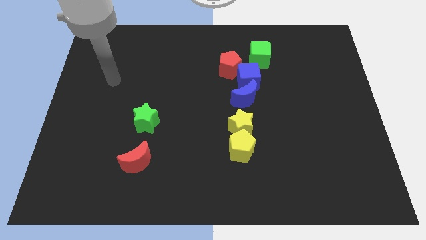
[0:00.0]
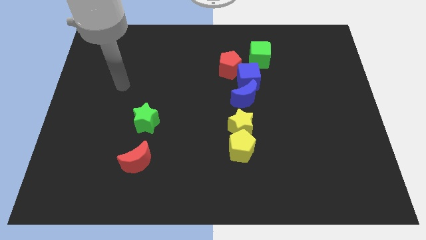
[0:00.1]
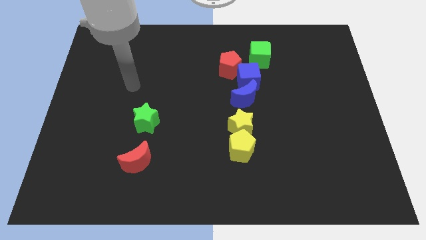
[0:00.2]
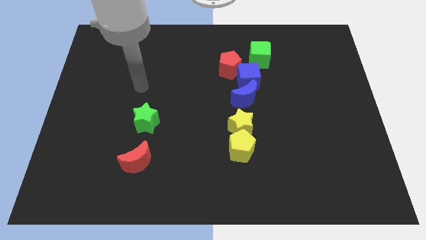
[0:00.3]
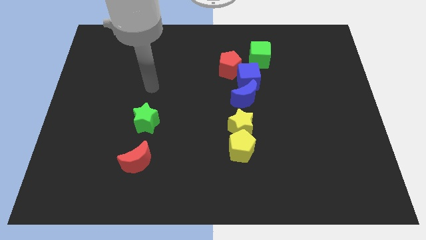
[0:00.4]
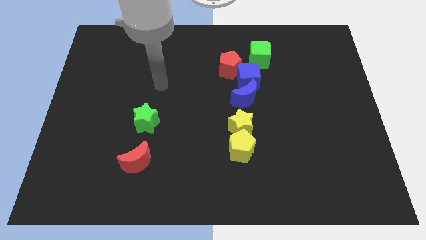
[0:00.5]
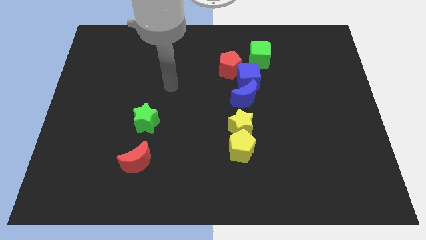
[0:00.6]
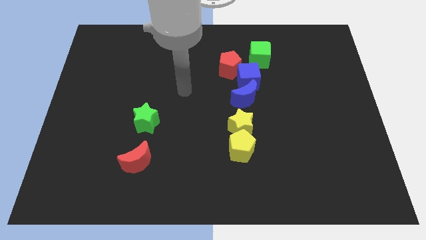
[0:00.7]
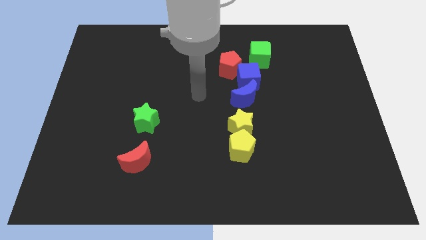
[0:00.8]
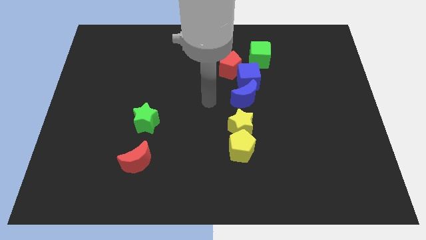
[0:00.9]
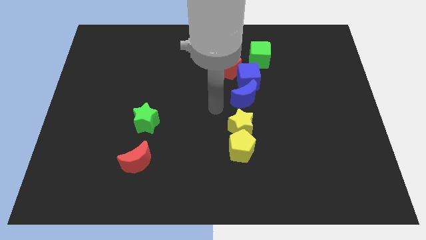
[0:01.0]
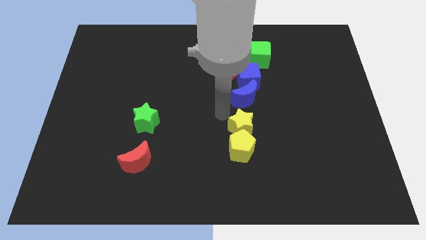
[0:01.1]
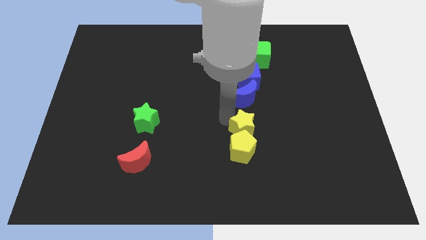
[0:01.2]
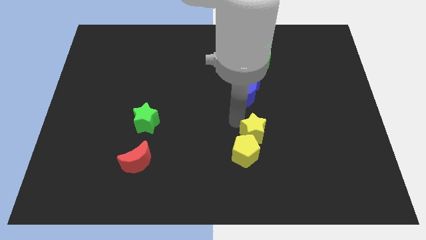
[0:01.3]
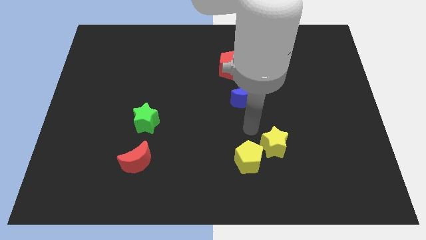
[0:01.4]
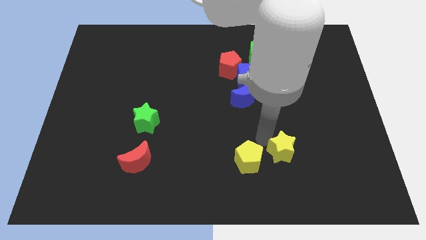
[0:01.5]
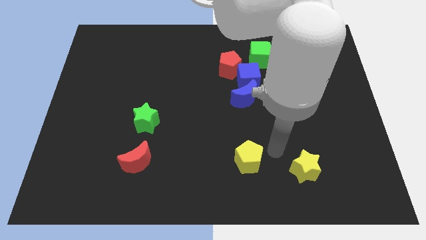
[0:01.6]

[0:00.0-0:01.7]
move the yellow pentagon away from the yellow star

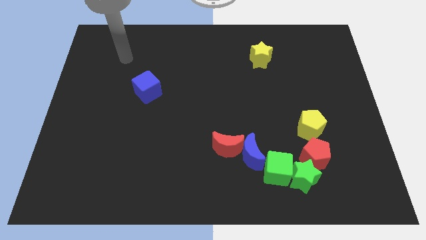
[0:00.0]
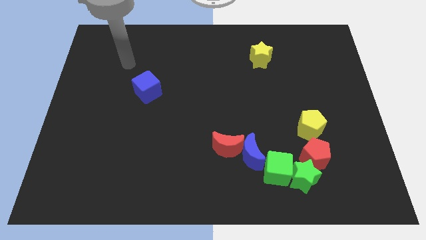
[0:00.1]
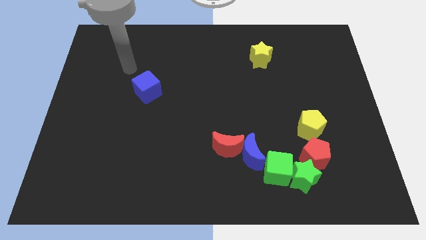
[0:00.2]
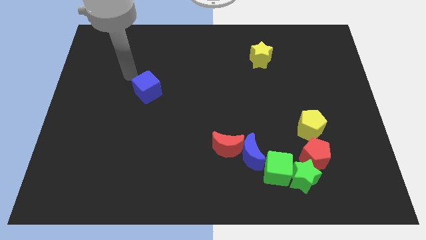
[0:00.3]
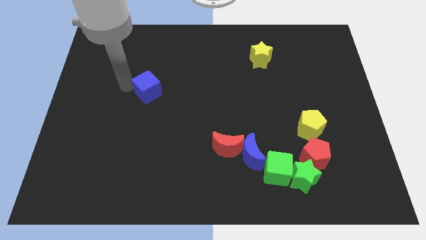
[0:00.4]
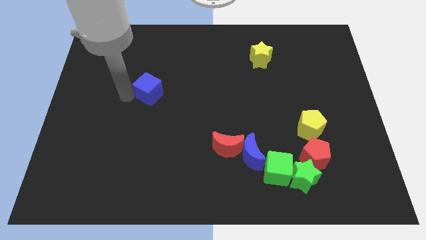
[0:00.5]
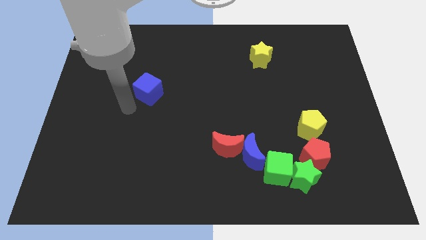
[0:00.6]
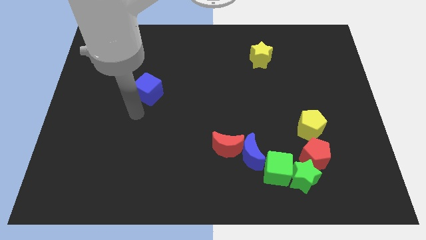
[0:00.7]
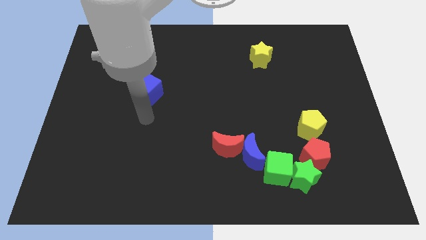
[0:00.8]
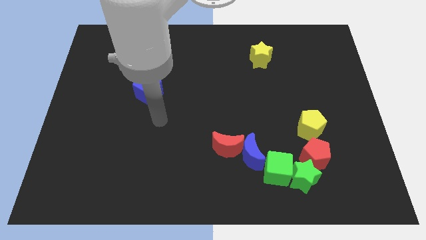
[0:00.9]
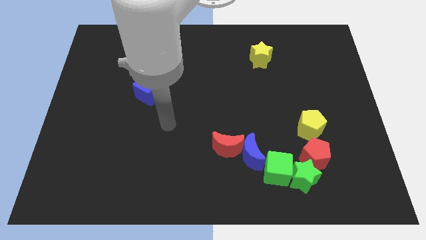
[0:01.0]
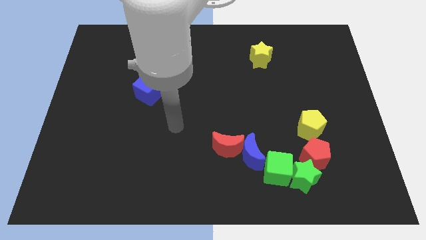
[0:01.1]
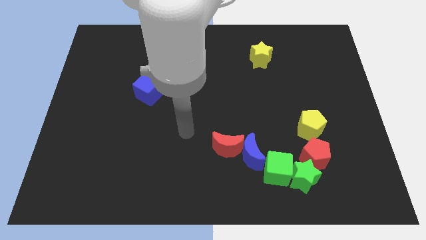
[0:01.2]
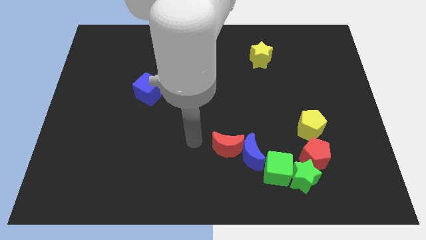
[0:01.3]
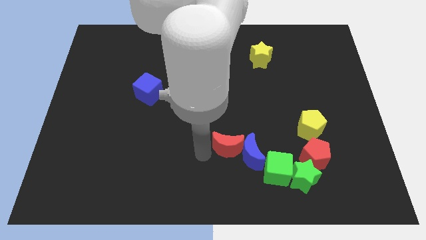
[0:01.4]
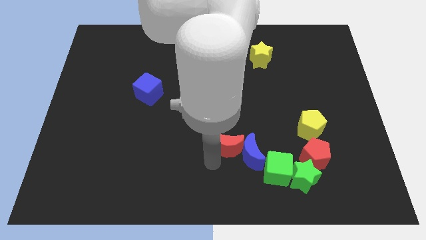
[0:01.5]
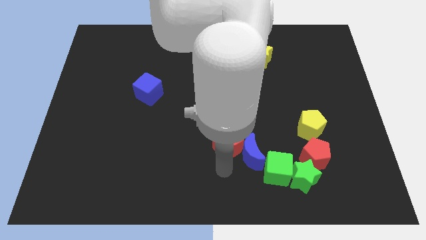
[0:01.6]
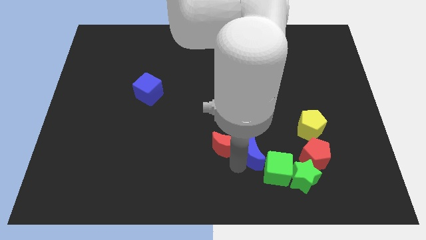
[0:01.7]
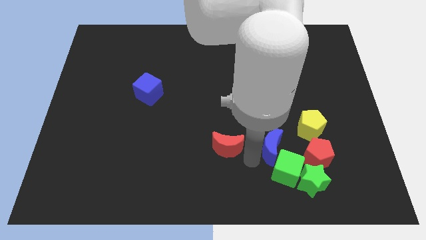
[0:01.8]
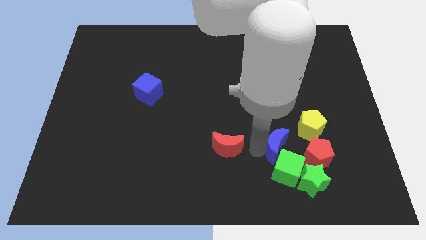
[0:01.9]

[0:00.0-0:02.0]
separate the red moon from the blue moon

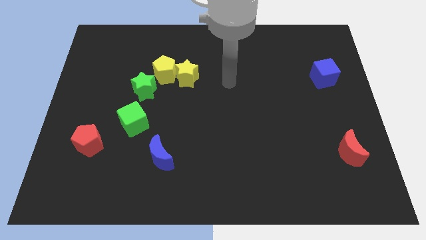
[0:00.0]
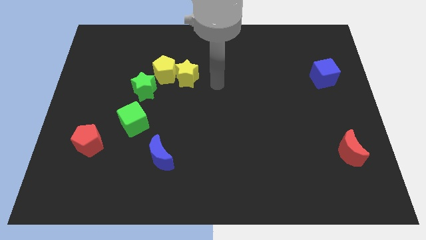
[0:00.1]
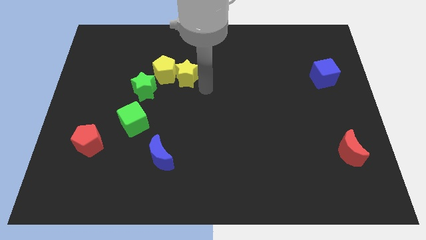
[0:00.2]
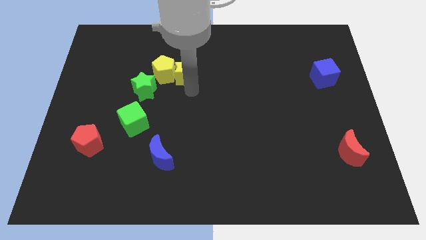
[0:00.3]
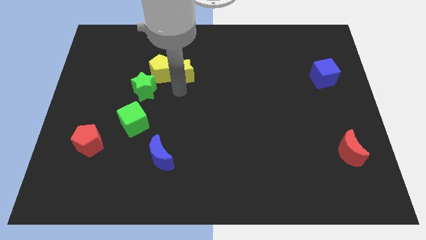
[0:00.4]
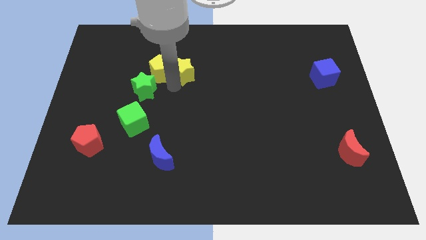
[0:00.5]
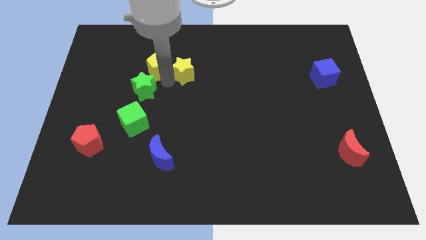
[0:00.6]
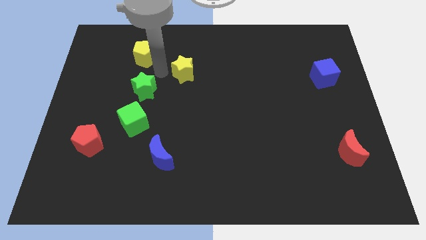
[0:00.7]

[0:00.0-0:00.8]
pull the yellow star apart from the yellow pentagon

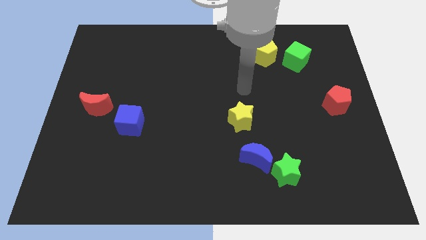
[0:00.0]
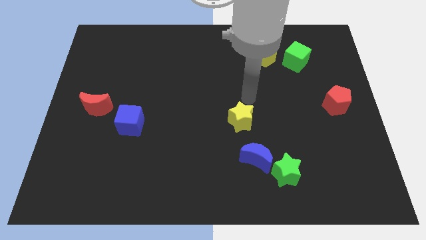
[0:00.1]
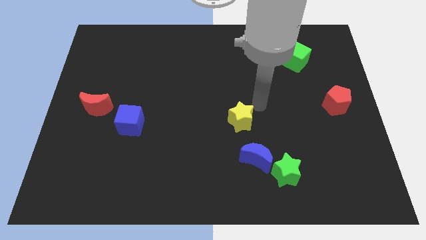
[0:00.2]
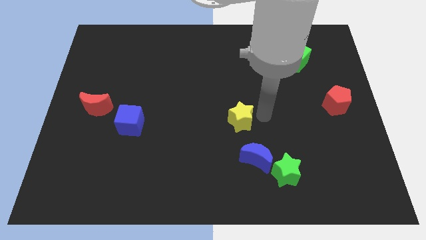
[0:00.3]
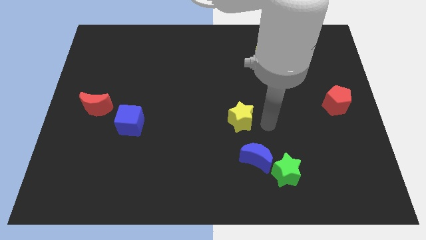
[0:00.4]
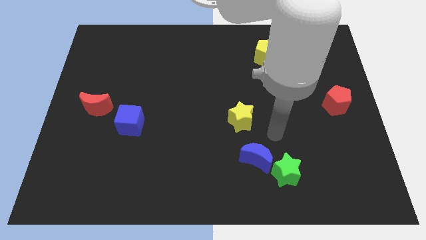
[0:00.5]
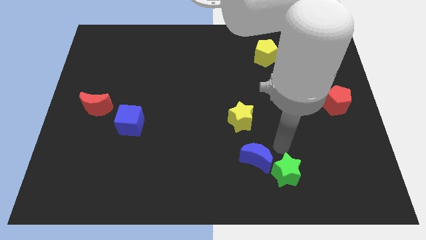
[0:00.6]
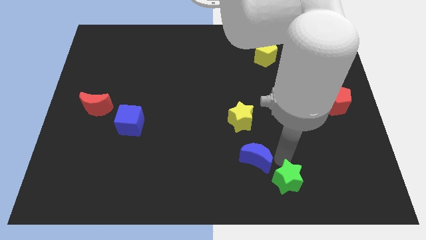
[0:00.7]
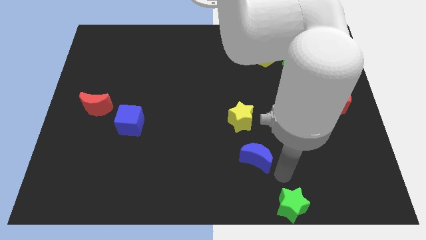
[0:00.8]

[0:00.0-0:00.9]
separate the blue moon from the green star

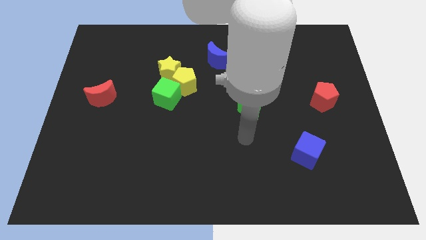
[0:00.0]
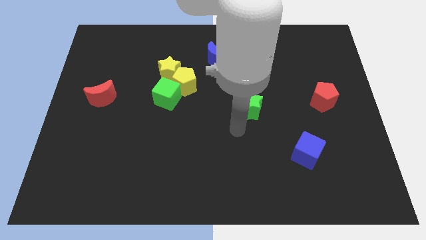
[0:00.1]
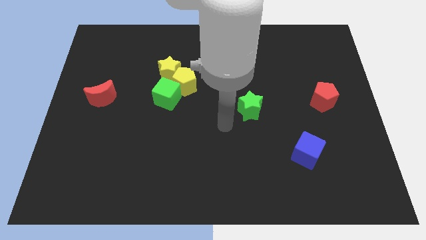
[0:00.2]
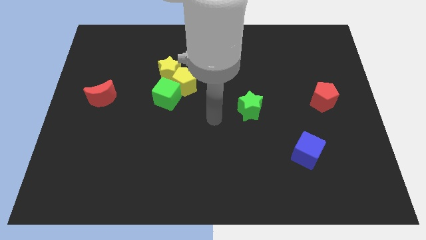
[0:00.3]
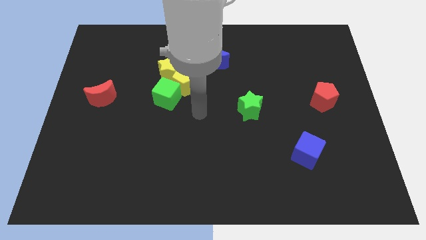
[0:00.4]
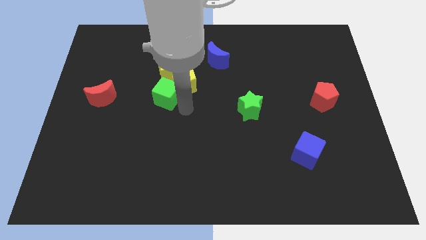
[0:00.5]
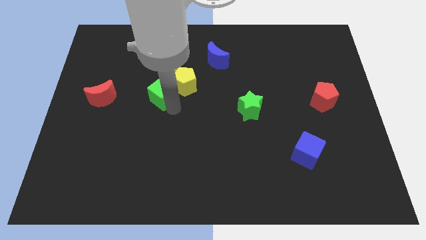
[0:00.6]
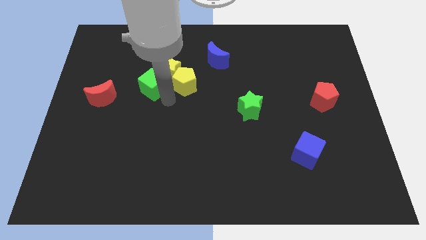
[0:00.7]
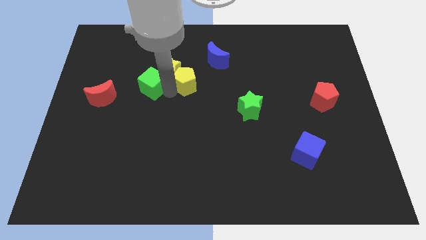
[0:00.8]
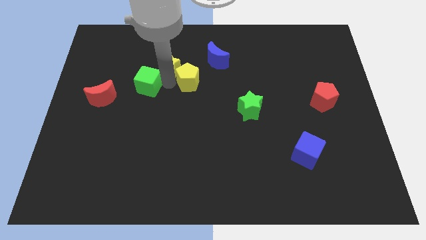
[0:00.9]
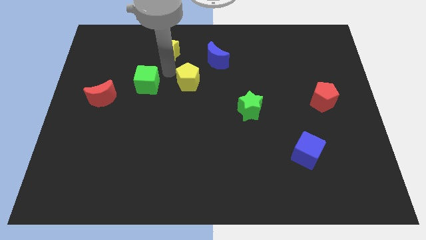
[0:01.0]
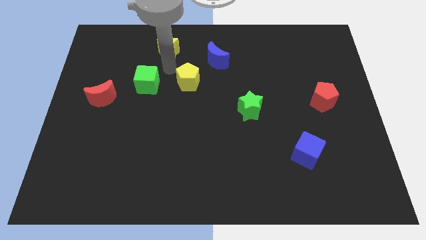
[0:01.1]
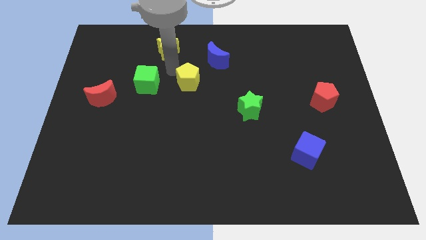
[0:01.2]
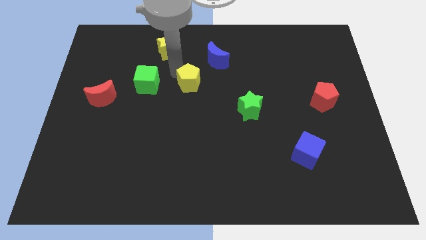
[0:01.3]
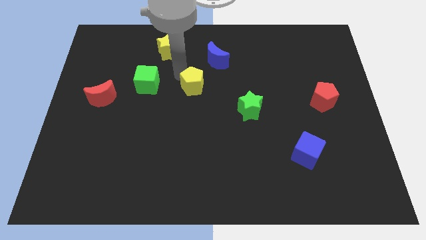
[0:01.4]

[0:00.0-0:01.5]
pull the yellow pentagon apart from the yellow star and green cube

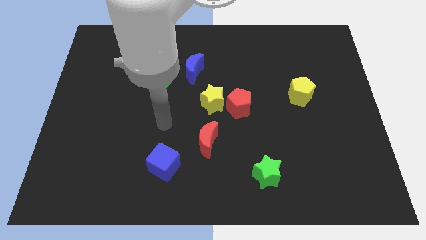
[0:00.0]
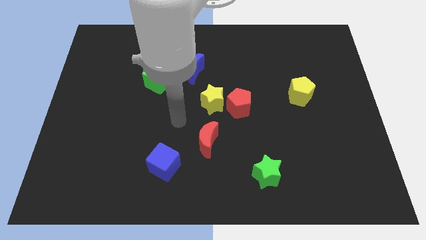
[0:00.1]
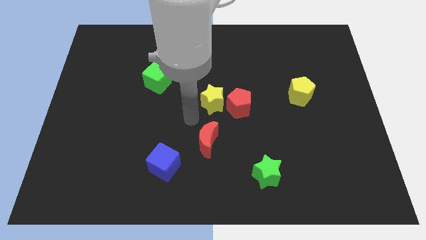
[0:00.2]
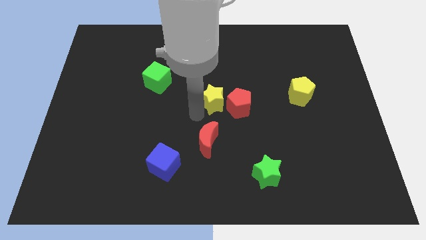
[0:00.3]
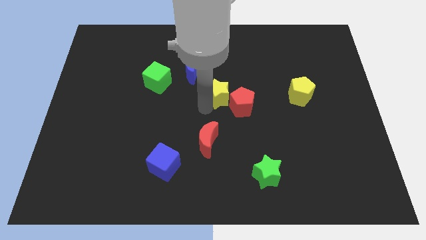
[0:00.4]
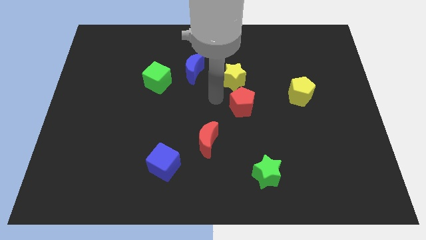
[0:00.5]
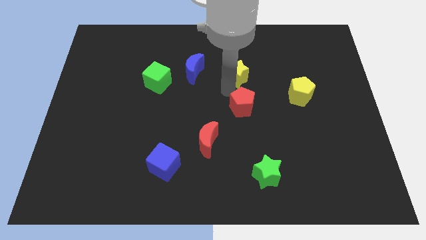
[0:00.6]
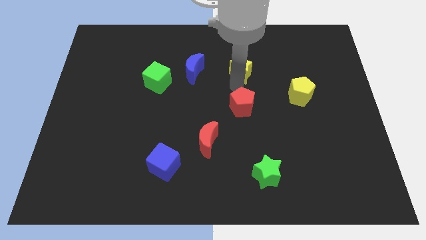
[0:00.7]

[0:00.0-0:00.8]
pull the red pentagon apart from the yellow star

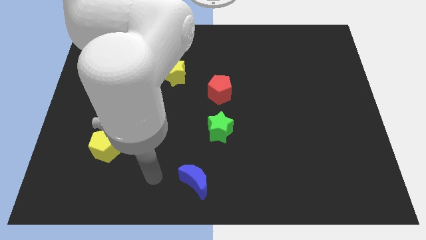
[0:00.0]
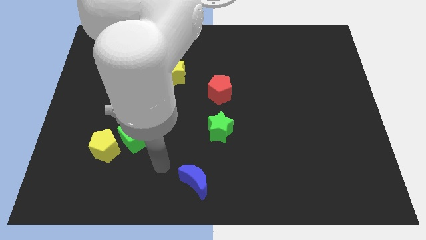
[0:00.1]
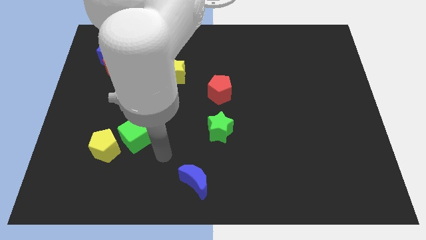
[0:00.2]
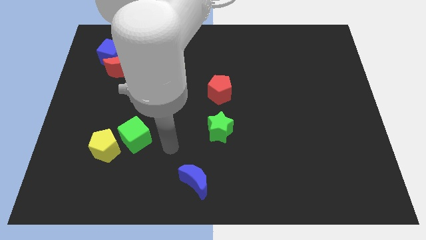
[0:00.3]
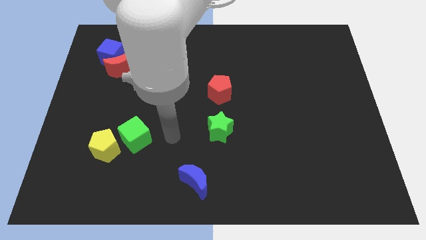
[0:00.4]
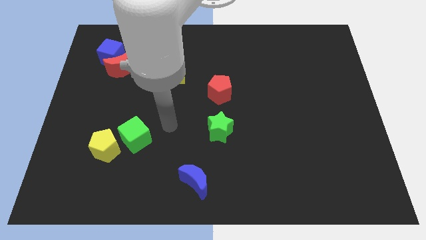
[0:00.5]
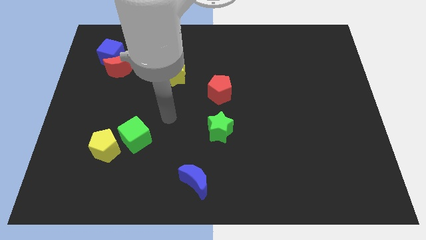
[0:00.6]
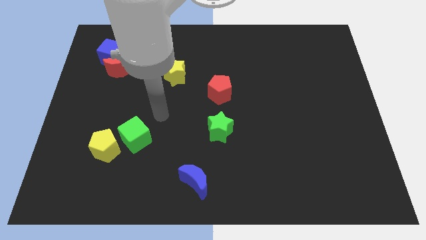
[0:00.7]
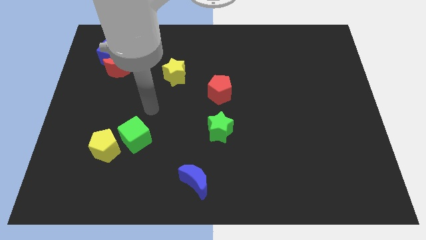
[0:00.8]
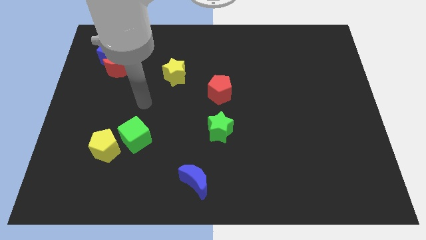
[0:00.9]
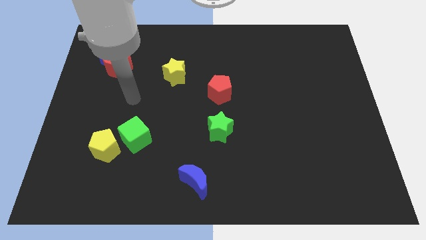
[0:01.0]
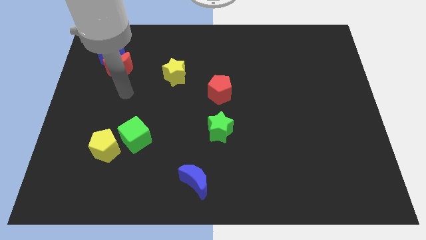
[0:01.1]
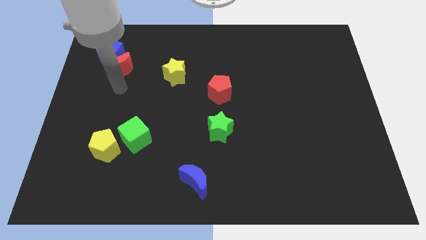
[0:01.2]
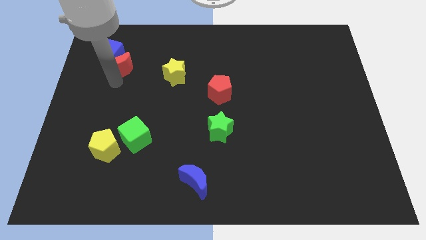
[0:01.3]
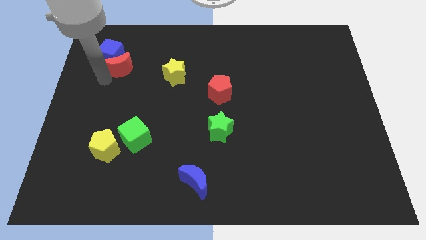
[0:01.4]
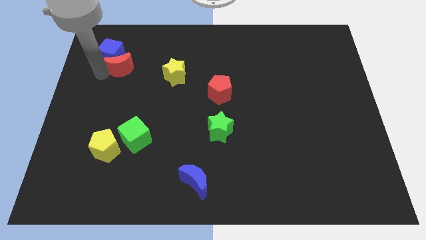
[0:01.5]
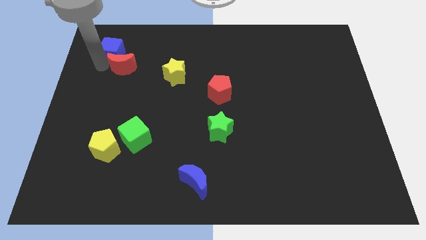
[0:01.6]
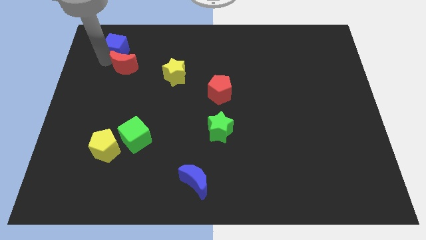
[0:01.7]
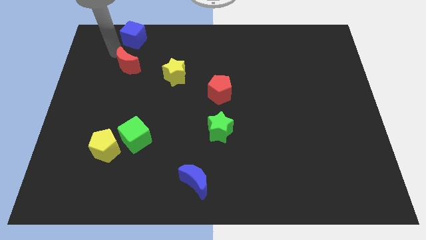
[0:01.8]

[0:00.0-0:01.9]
pull the red moon apart from the blue cube
